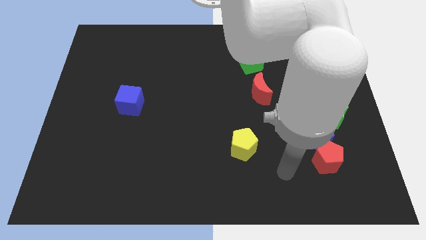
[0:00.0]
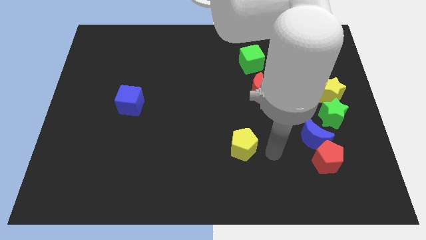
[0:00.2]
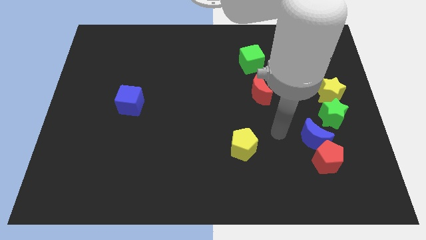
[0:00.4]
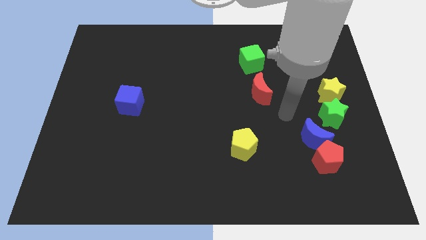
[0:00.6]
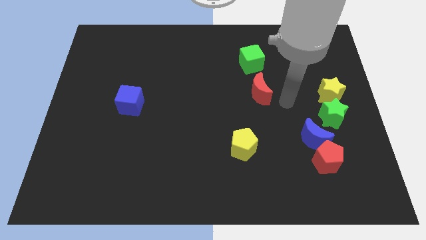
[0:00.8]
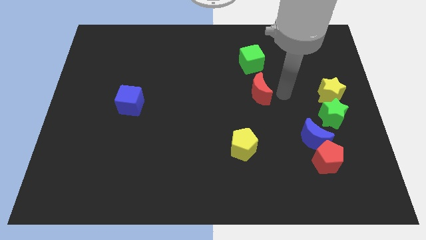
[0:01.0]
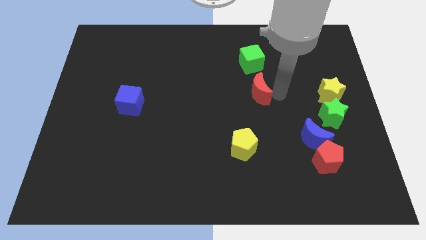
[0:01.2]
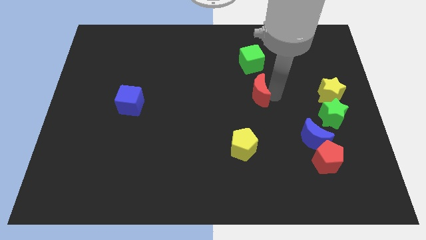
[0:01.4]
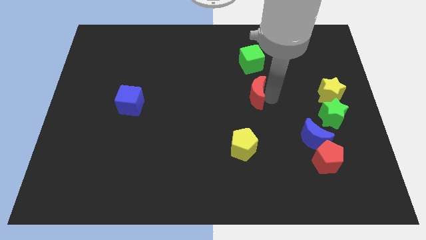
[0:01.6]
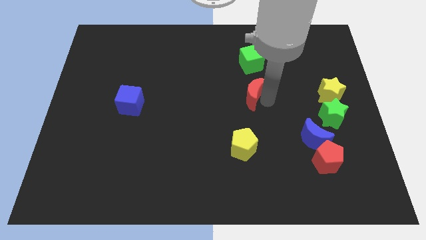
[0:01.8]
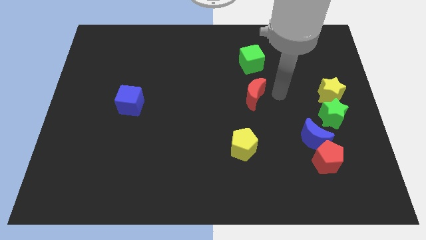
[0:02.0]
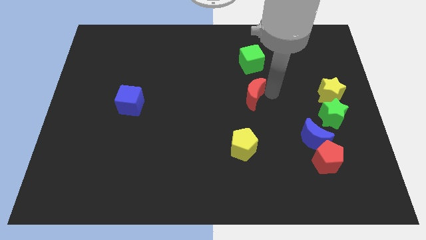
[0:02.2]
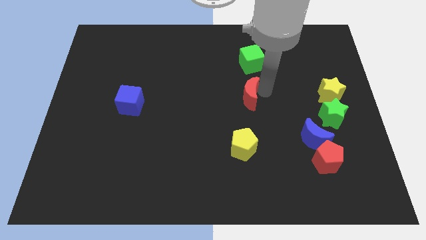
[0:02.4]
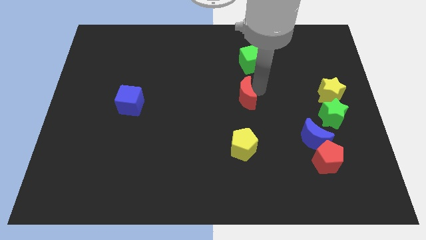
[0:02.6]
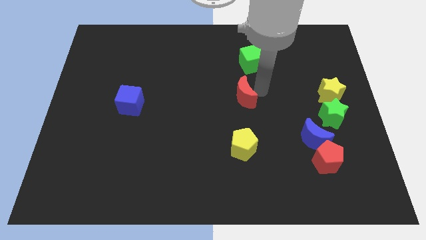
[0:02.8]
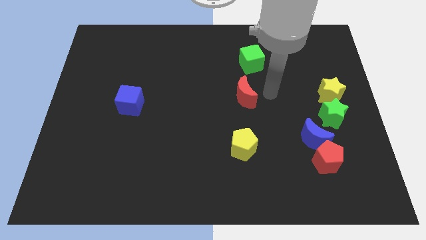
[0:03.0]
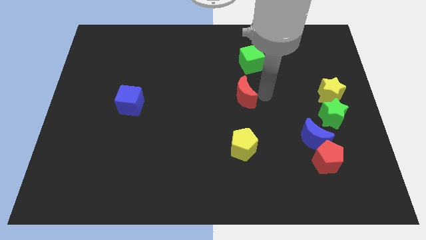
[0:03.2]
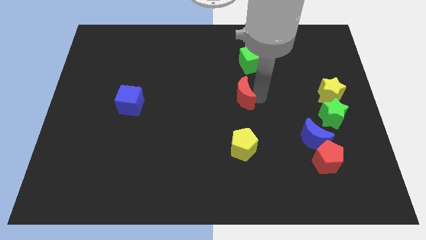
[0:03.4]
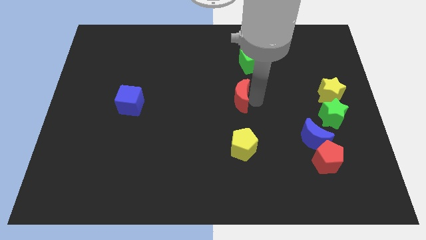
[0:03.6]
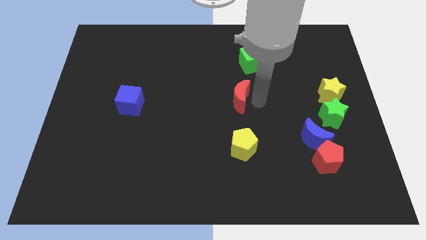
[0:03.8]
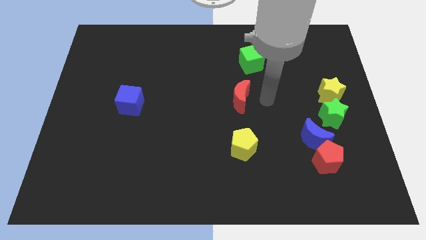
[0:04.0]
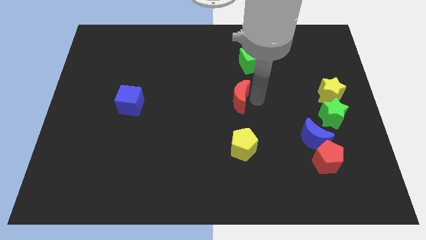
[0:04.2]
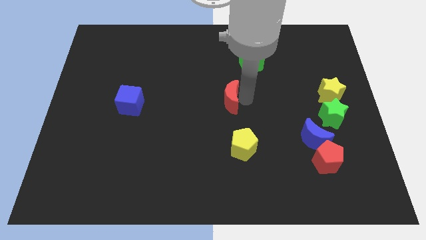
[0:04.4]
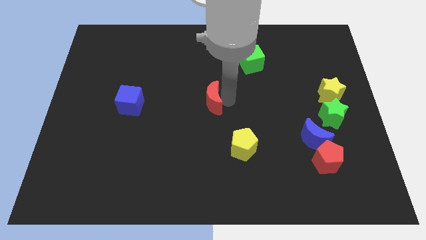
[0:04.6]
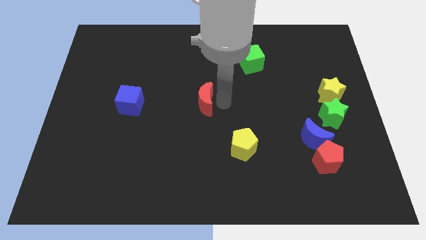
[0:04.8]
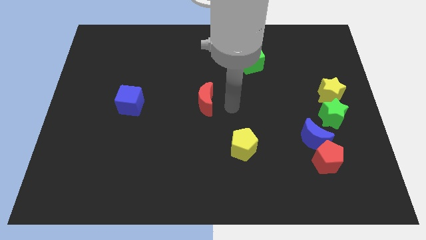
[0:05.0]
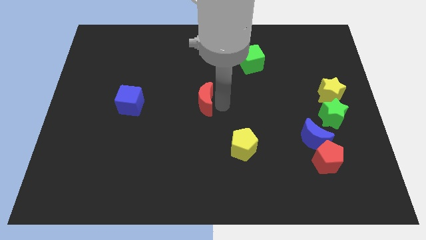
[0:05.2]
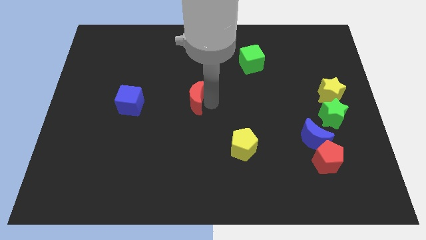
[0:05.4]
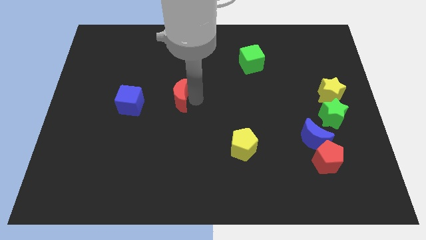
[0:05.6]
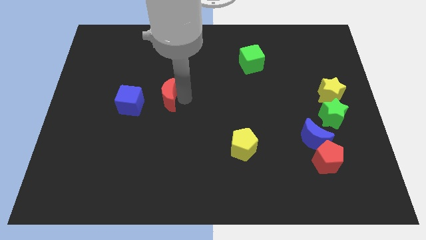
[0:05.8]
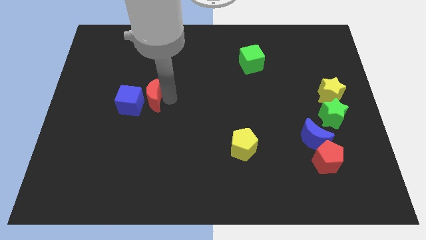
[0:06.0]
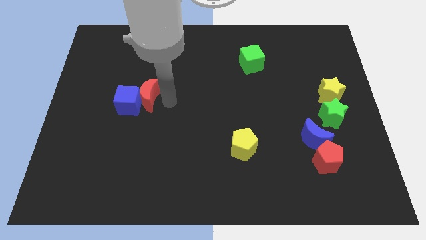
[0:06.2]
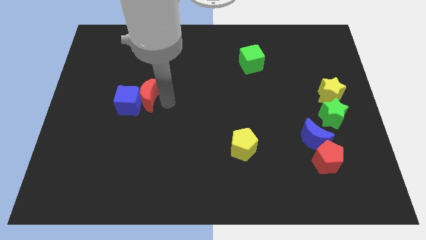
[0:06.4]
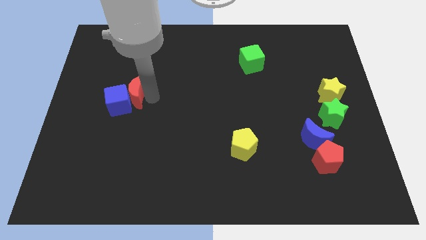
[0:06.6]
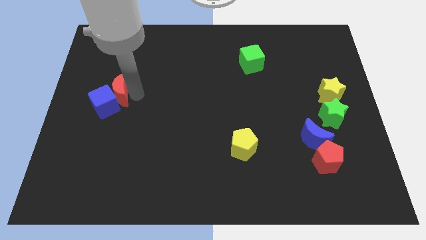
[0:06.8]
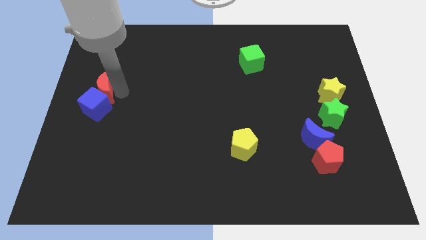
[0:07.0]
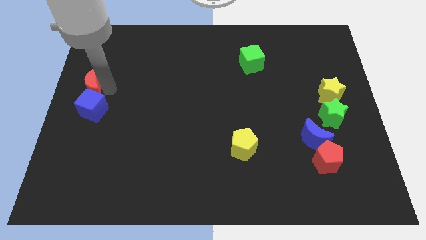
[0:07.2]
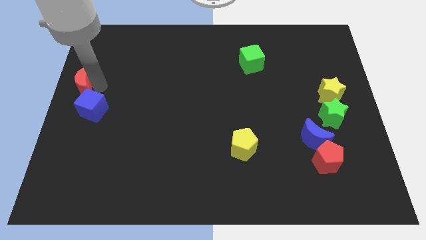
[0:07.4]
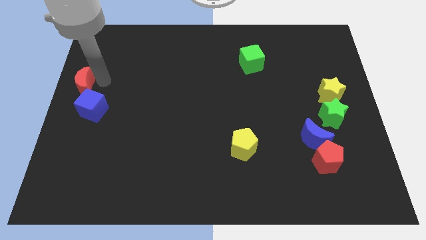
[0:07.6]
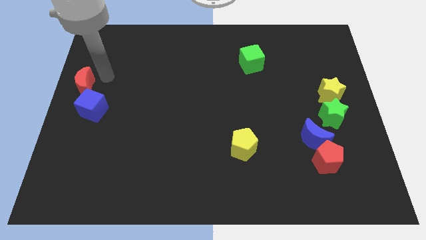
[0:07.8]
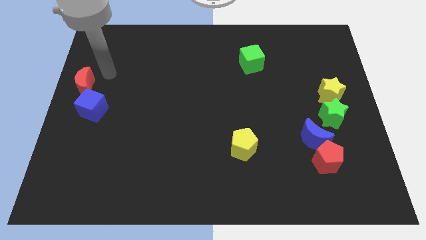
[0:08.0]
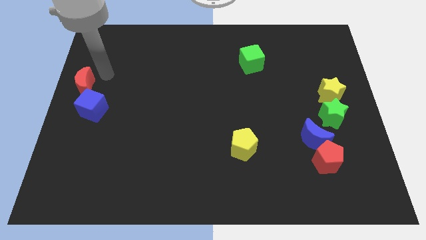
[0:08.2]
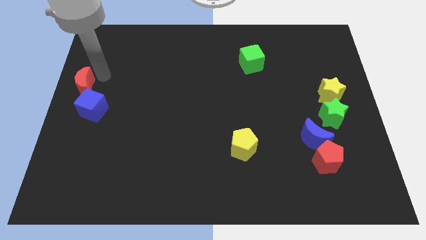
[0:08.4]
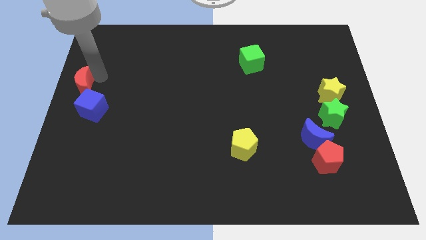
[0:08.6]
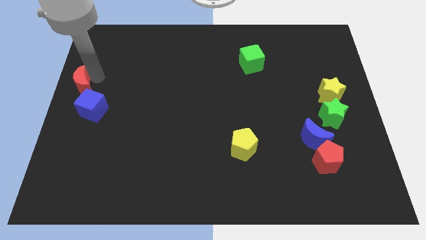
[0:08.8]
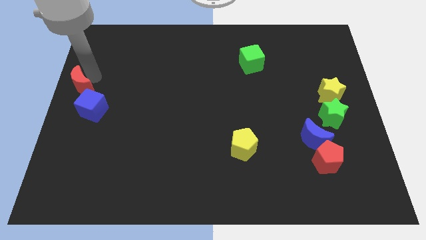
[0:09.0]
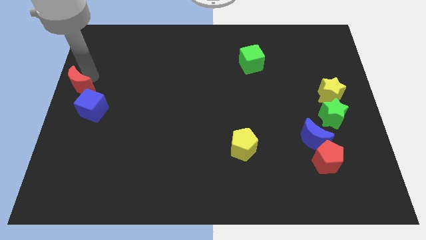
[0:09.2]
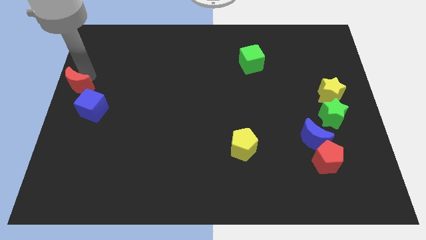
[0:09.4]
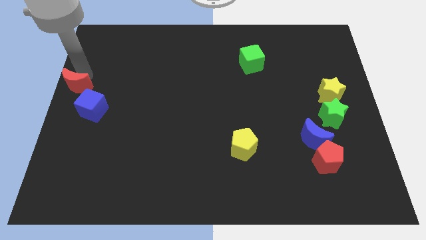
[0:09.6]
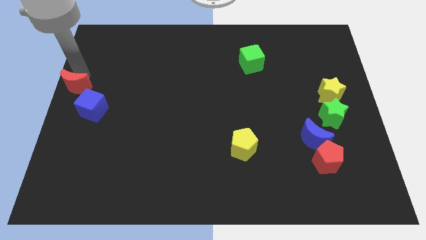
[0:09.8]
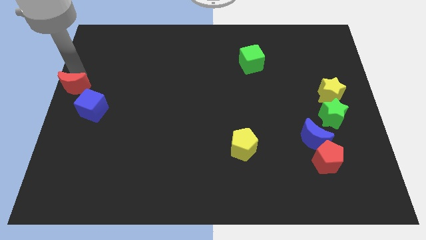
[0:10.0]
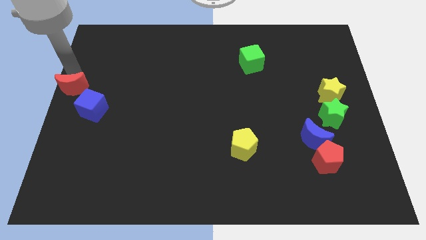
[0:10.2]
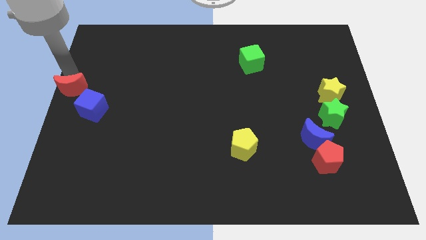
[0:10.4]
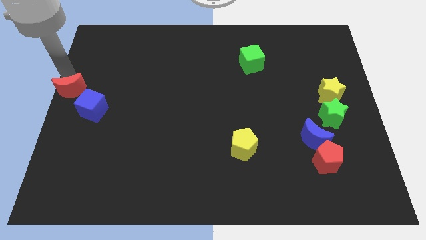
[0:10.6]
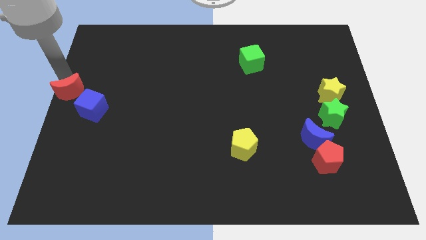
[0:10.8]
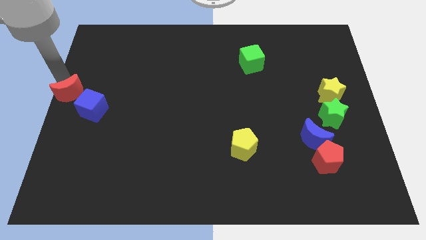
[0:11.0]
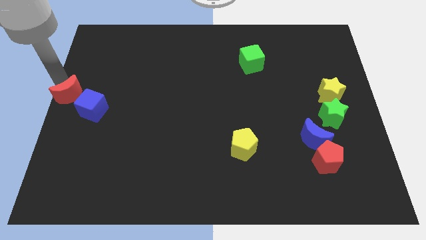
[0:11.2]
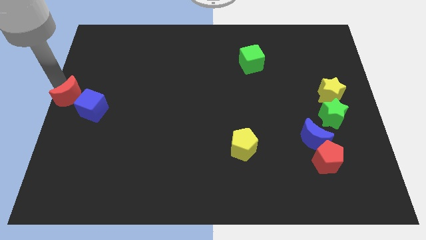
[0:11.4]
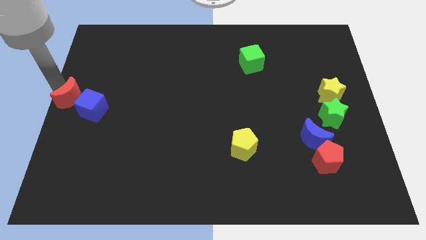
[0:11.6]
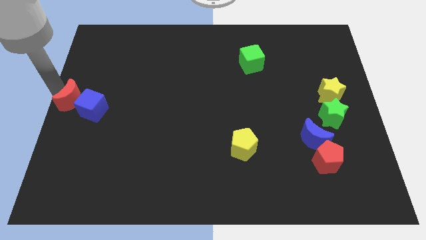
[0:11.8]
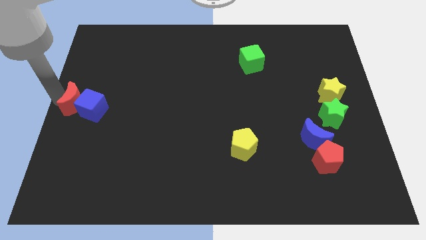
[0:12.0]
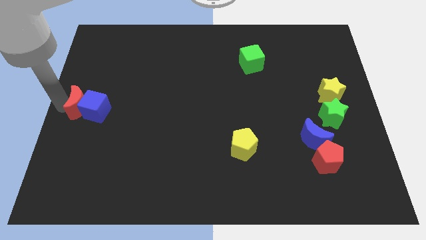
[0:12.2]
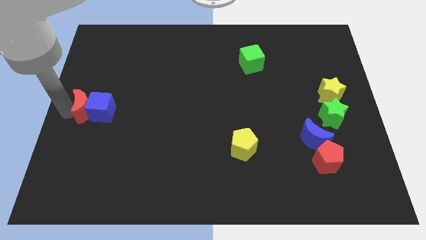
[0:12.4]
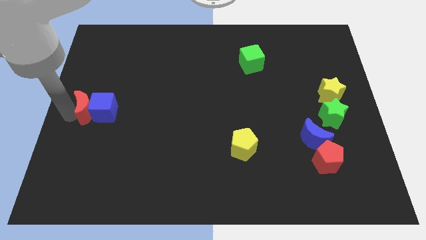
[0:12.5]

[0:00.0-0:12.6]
put the red moon diagonally up and to the left of the blue cube

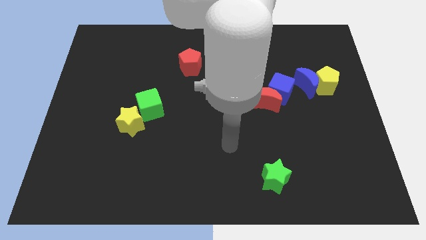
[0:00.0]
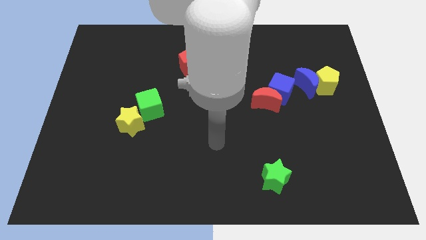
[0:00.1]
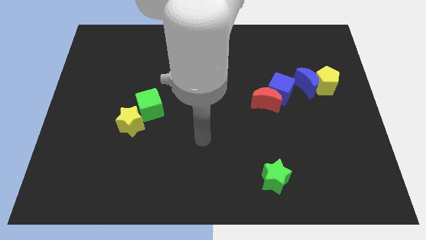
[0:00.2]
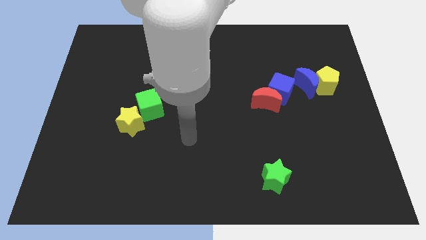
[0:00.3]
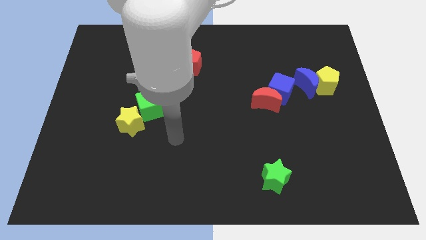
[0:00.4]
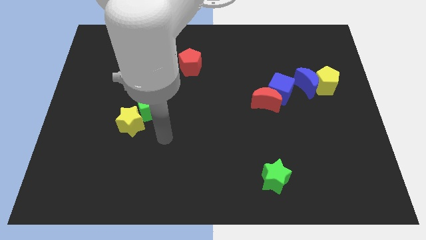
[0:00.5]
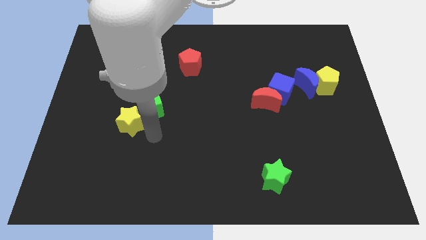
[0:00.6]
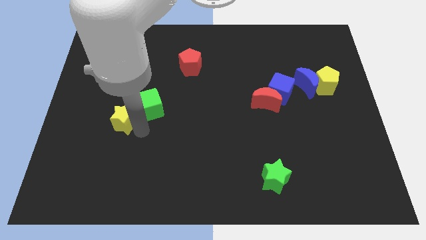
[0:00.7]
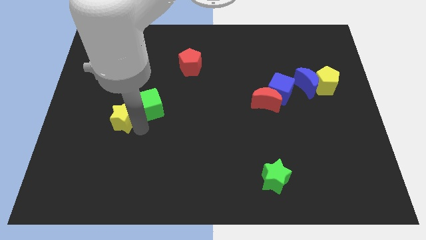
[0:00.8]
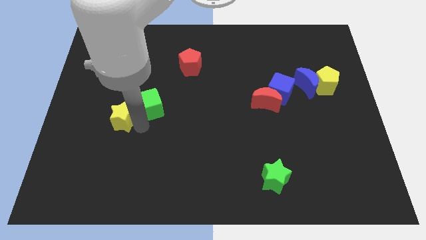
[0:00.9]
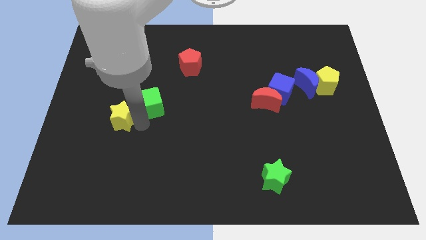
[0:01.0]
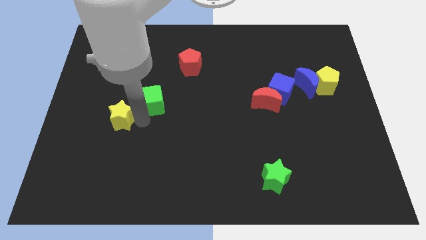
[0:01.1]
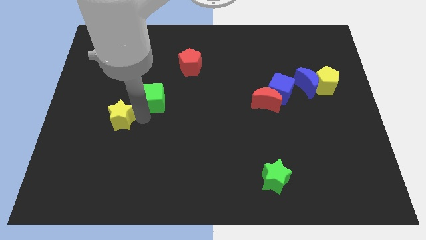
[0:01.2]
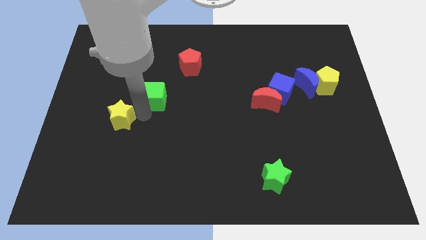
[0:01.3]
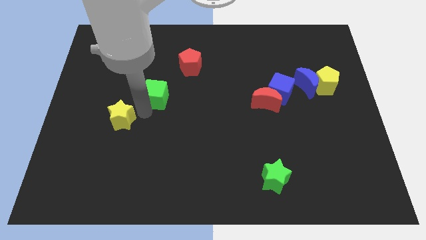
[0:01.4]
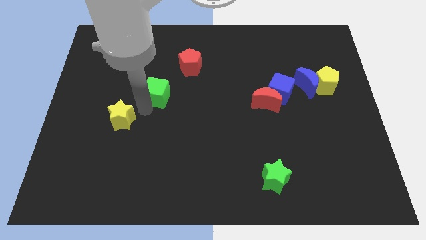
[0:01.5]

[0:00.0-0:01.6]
move the green cube to the bottom left side of the red pentagon
